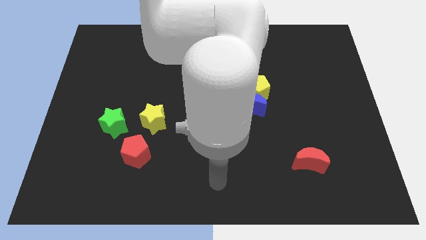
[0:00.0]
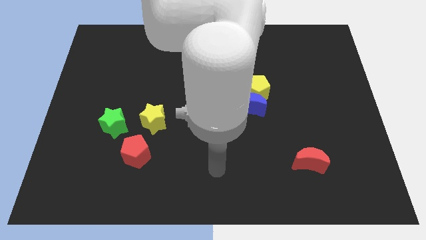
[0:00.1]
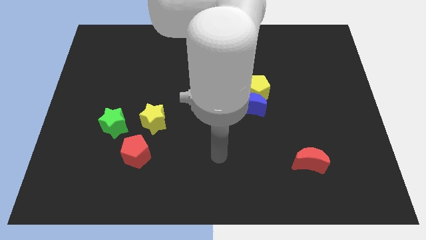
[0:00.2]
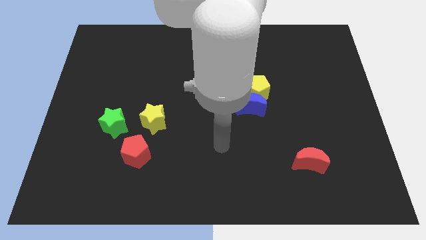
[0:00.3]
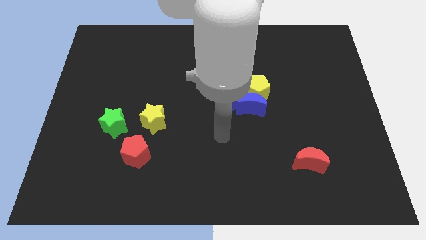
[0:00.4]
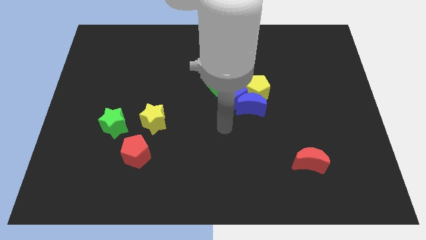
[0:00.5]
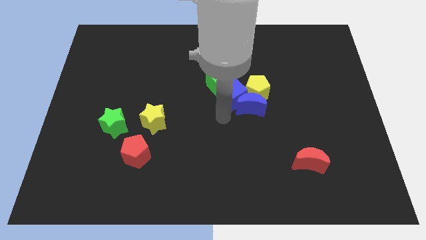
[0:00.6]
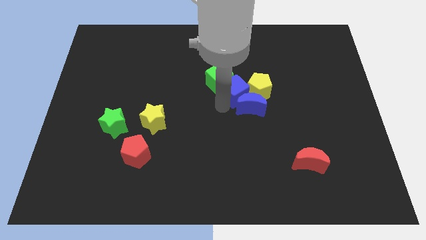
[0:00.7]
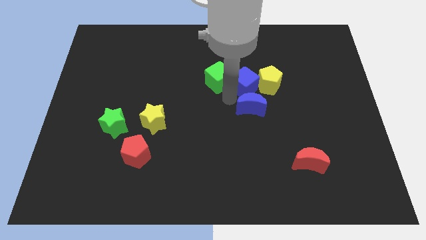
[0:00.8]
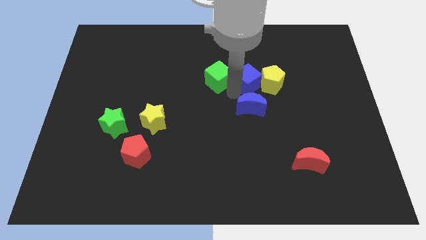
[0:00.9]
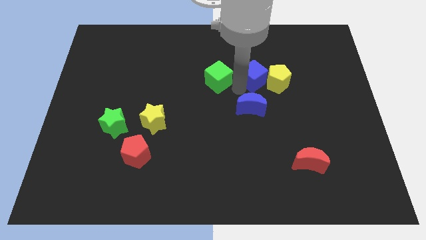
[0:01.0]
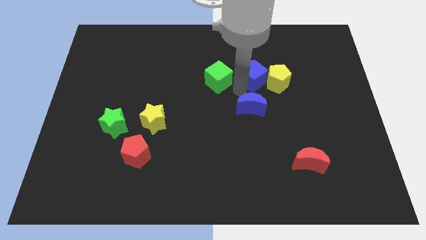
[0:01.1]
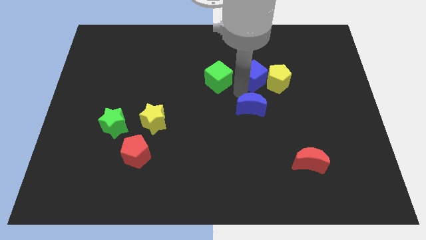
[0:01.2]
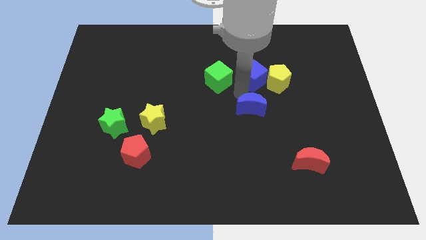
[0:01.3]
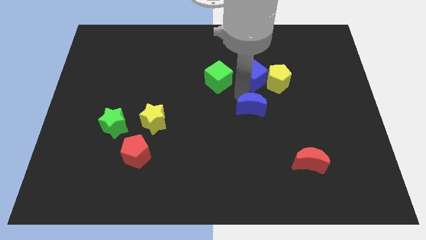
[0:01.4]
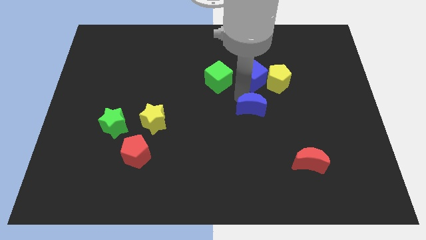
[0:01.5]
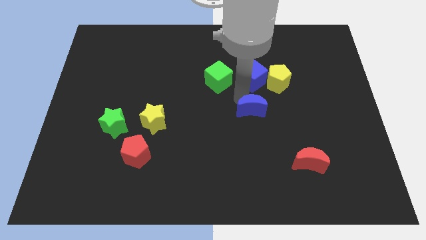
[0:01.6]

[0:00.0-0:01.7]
move the blue moon away from the yellow pentagon and blue cube

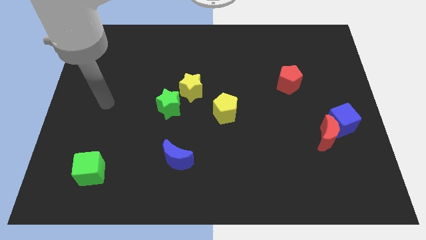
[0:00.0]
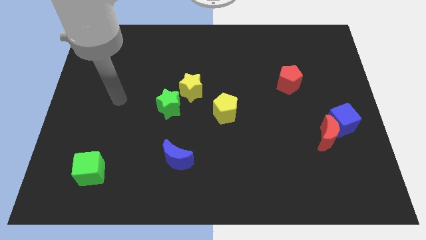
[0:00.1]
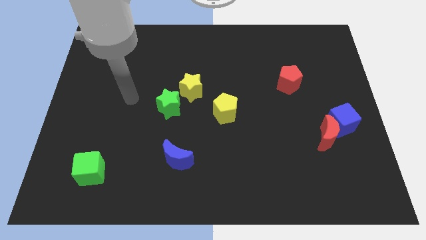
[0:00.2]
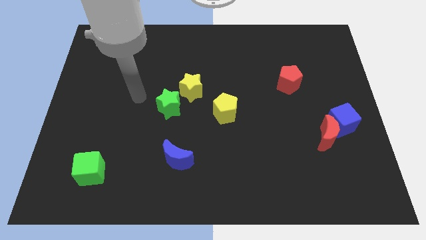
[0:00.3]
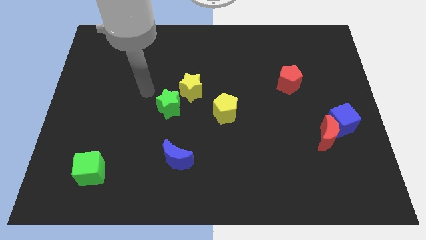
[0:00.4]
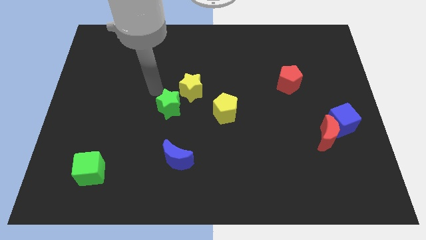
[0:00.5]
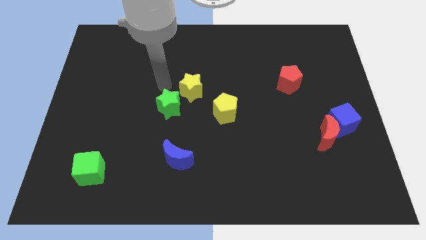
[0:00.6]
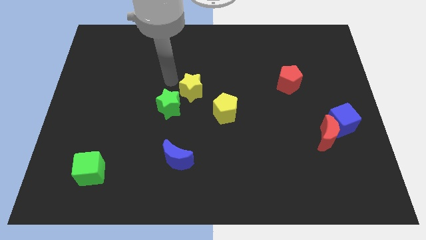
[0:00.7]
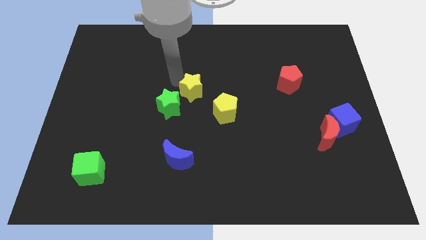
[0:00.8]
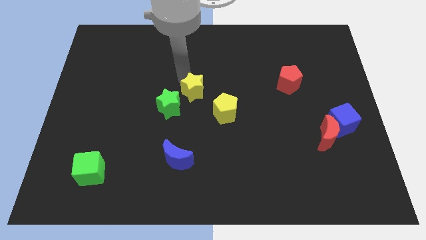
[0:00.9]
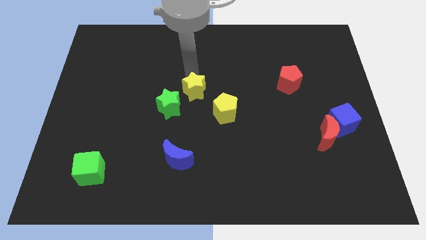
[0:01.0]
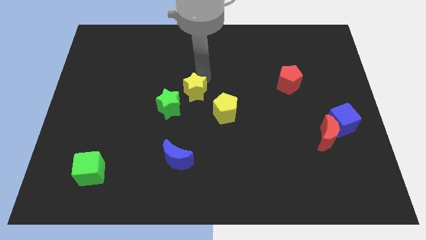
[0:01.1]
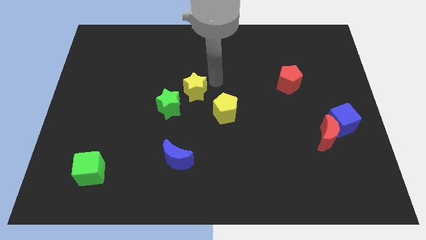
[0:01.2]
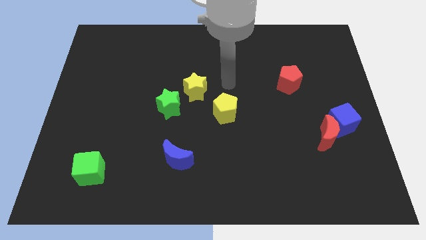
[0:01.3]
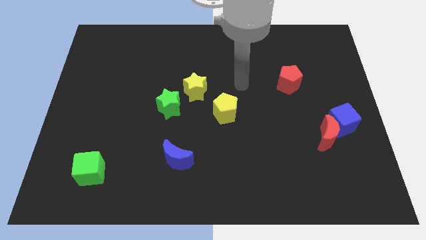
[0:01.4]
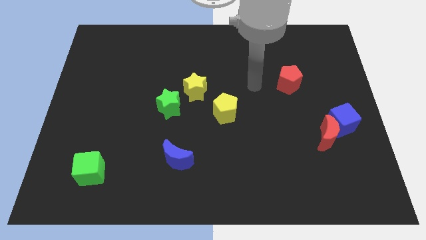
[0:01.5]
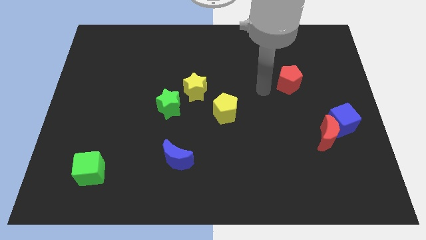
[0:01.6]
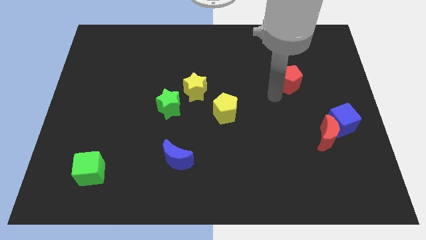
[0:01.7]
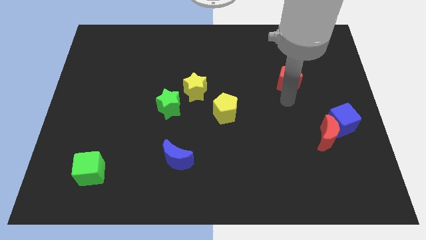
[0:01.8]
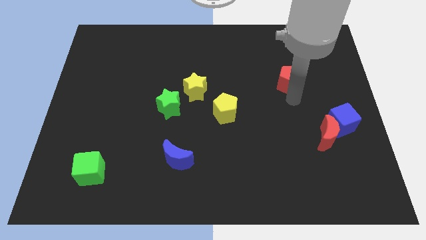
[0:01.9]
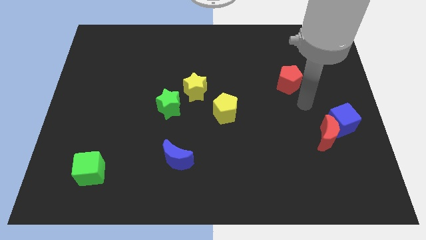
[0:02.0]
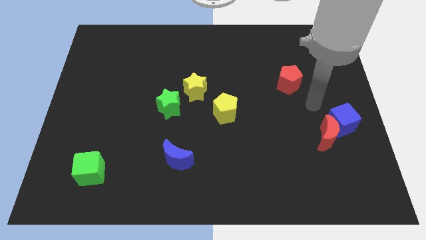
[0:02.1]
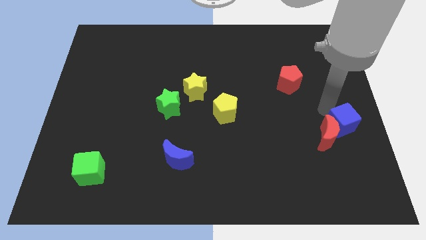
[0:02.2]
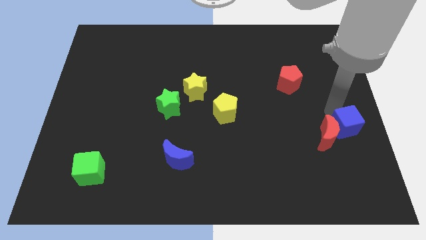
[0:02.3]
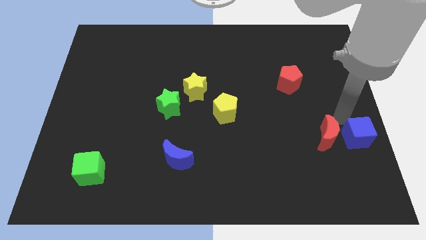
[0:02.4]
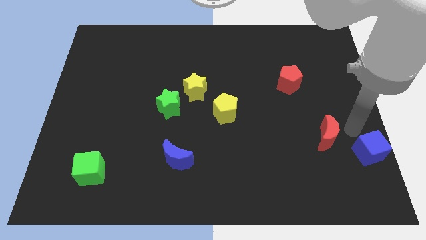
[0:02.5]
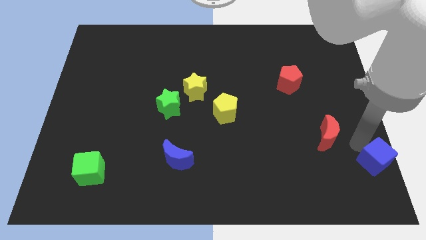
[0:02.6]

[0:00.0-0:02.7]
separate the red moon from the blue cube

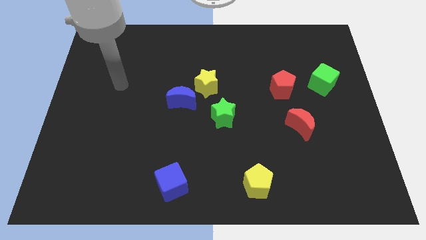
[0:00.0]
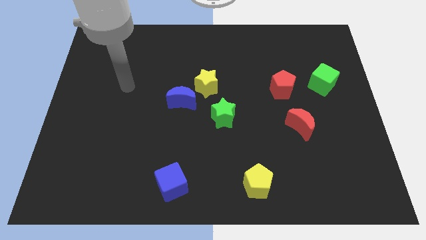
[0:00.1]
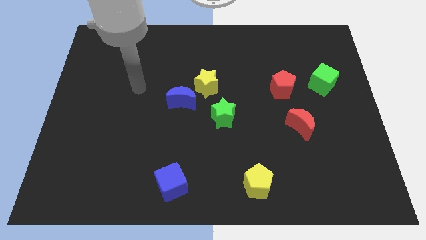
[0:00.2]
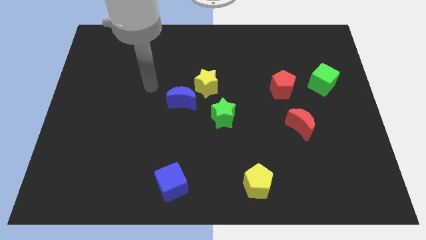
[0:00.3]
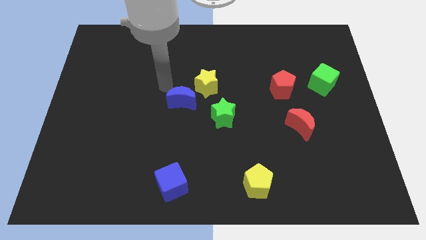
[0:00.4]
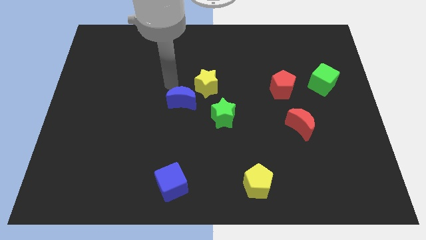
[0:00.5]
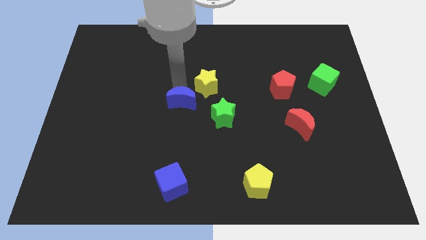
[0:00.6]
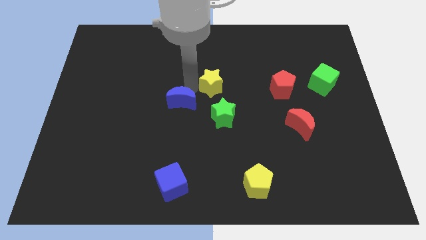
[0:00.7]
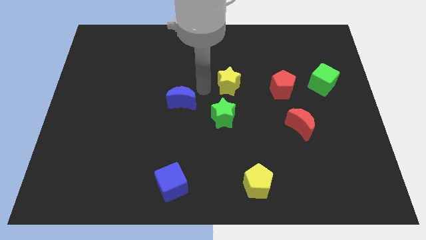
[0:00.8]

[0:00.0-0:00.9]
separate the blue moon from the yellow star

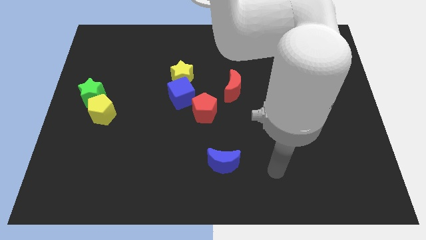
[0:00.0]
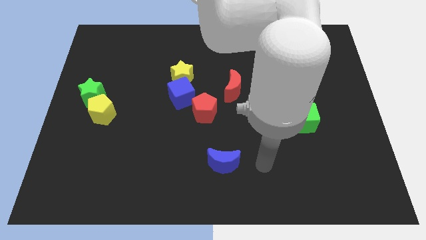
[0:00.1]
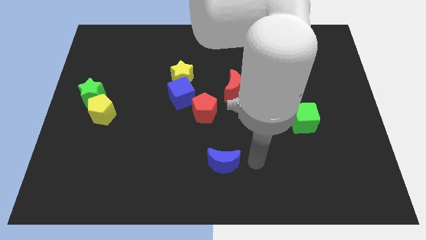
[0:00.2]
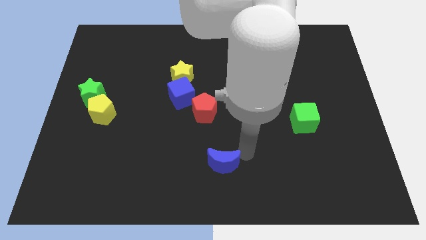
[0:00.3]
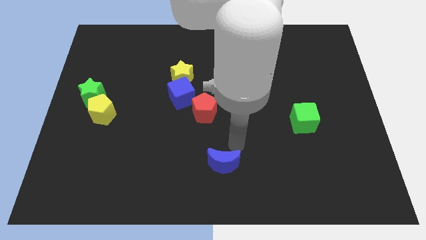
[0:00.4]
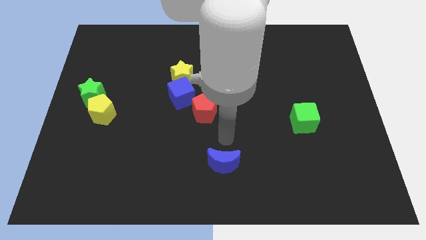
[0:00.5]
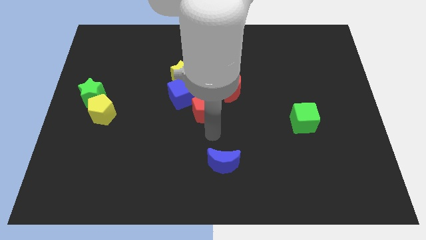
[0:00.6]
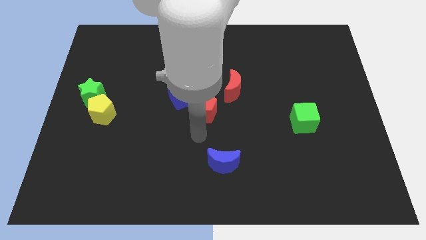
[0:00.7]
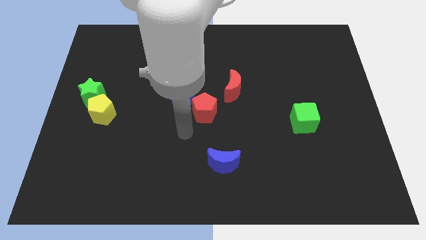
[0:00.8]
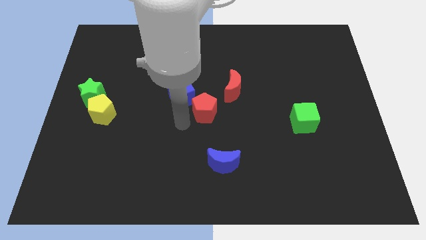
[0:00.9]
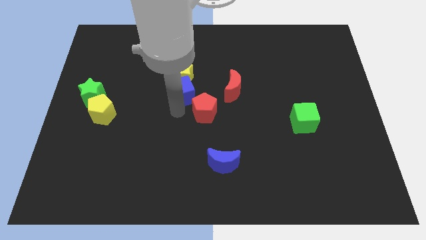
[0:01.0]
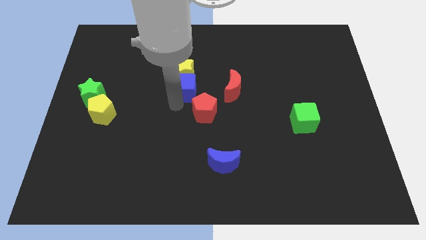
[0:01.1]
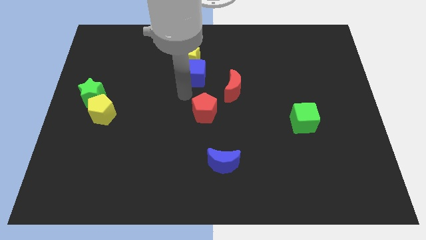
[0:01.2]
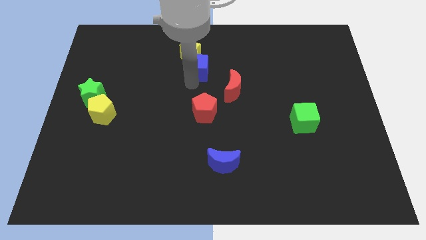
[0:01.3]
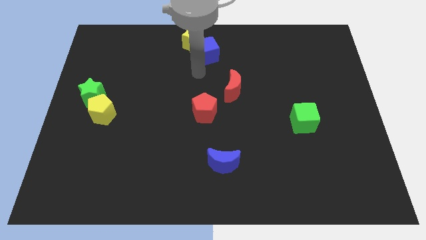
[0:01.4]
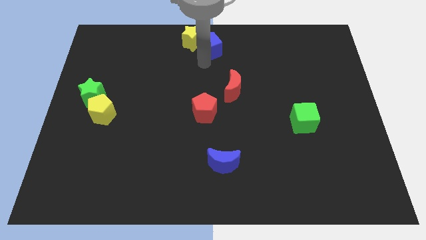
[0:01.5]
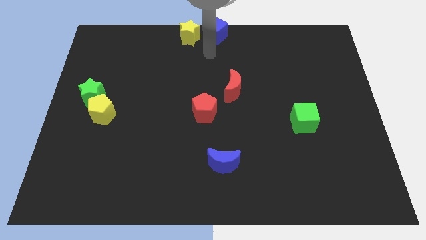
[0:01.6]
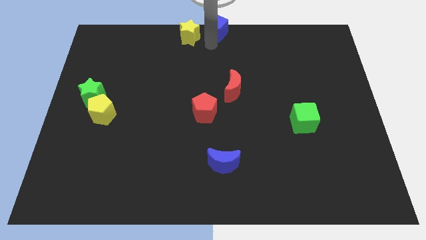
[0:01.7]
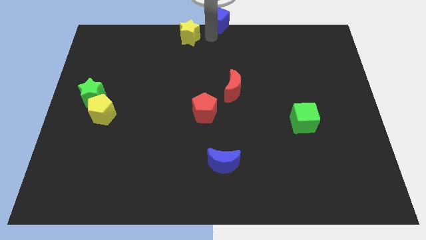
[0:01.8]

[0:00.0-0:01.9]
pull the yellow star apart from the blue cube

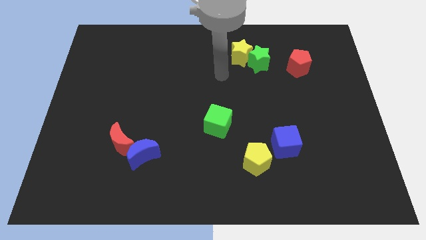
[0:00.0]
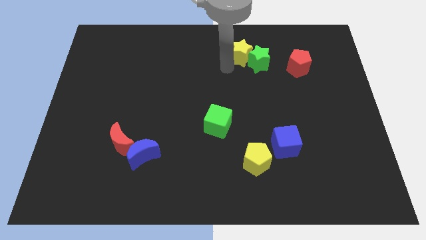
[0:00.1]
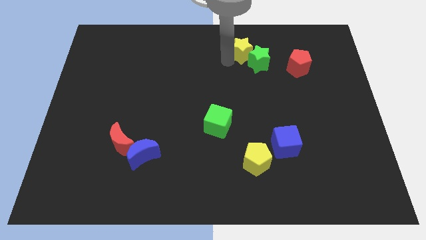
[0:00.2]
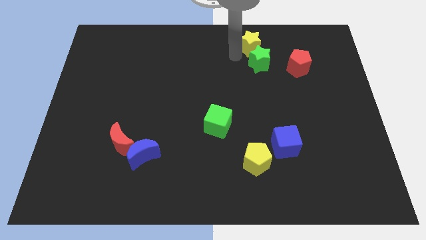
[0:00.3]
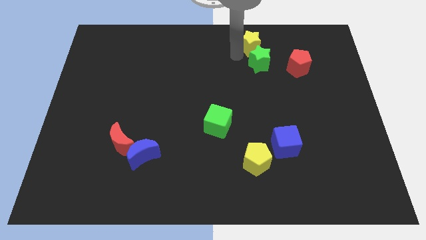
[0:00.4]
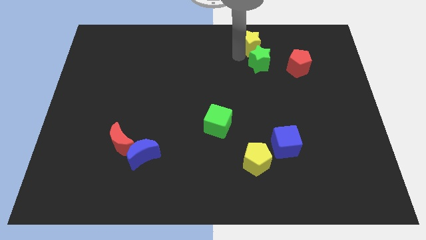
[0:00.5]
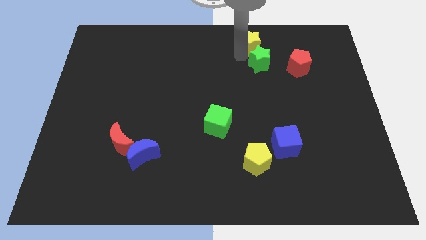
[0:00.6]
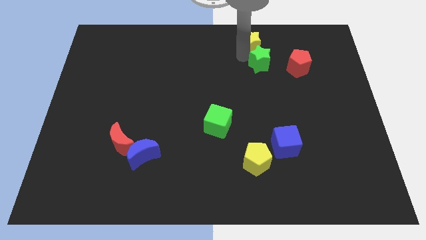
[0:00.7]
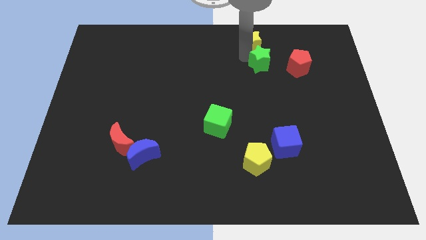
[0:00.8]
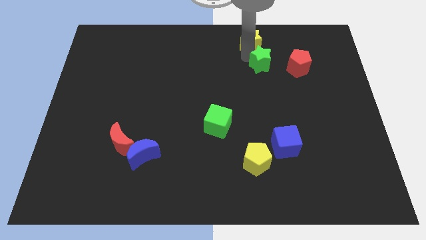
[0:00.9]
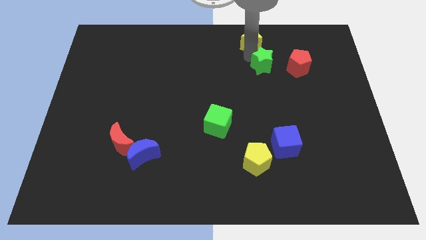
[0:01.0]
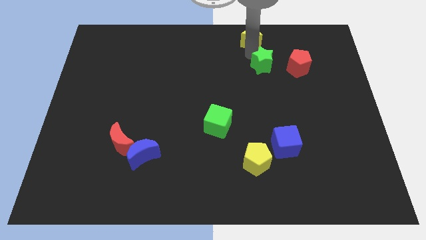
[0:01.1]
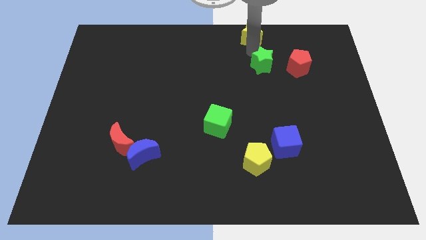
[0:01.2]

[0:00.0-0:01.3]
pull the green star apart from the yellow star

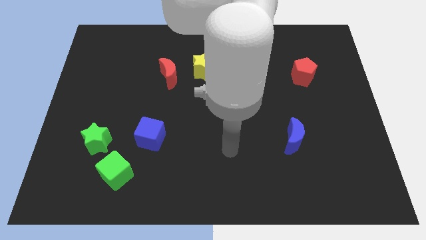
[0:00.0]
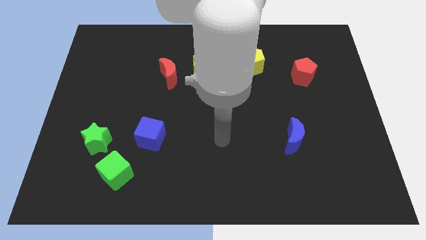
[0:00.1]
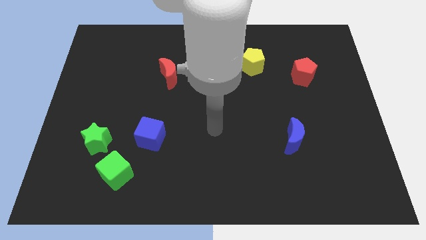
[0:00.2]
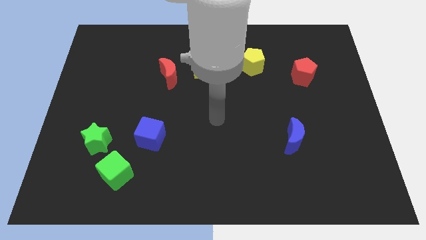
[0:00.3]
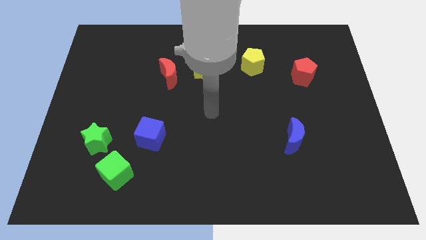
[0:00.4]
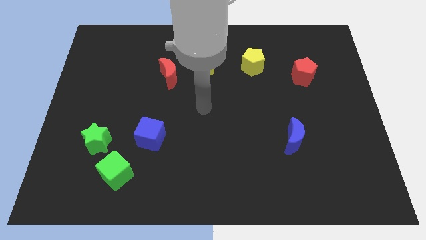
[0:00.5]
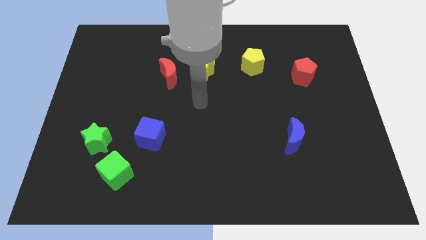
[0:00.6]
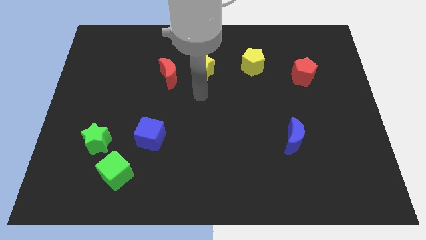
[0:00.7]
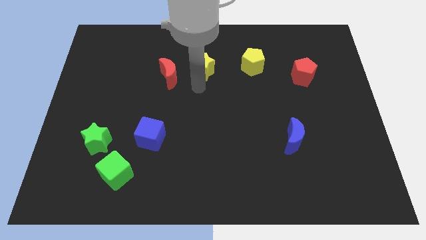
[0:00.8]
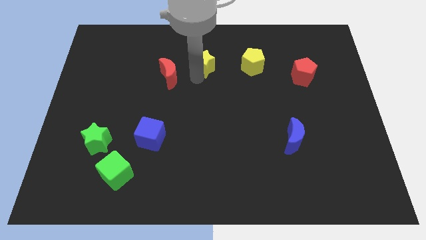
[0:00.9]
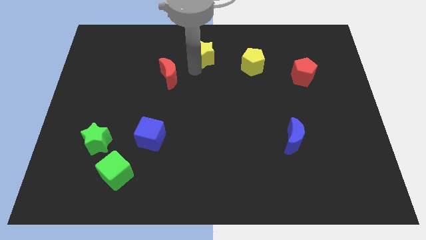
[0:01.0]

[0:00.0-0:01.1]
move the red moon away from the yellow star
